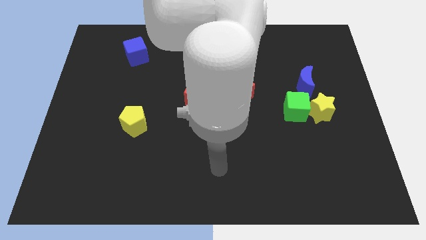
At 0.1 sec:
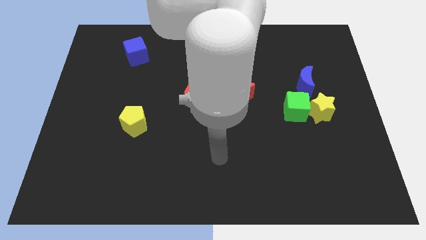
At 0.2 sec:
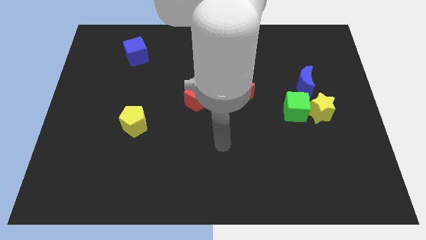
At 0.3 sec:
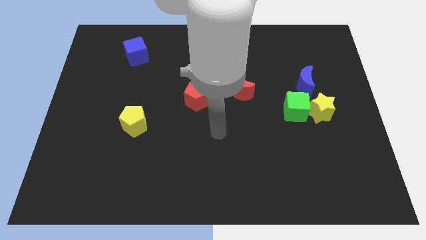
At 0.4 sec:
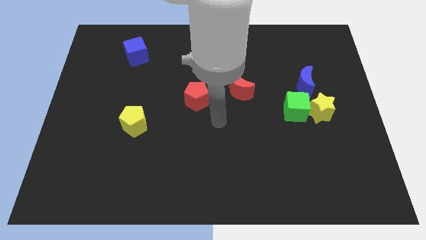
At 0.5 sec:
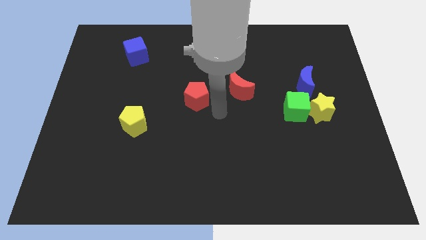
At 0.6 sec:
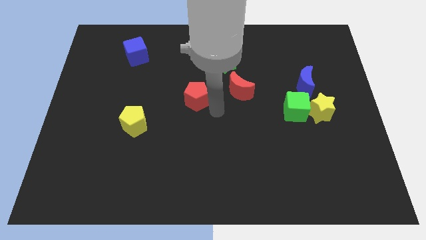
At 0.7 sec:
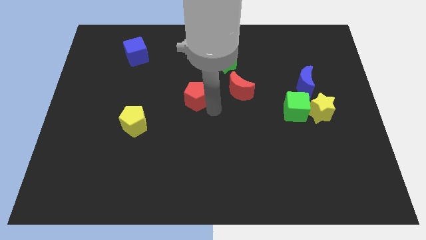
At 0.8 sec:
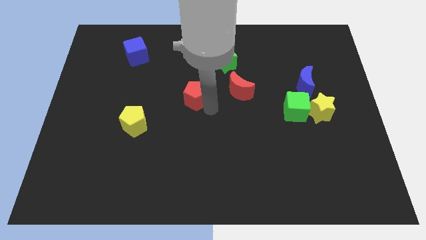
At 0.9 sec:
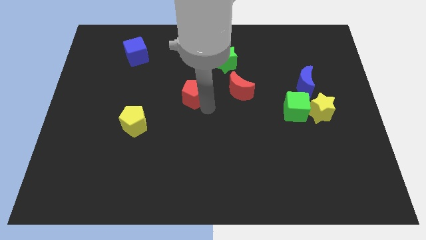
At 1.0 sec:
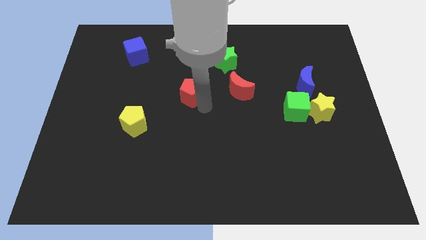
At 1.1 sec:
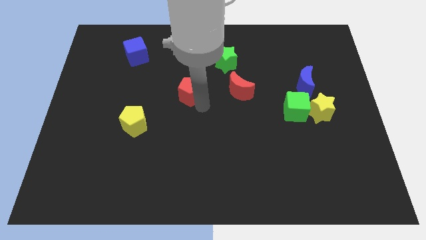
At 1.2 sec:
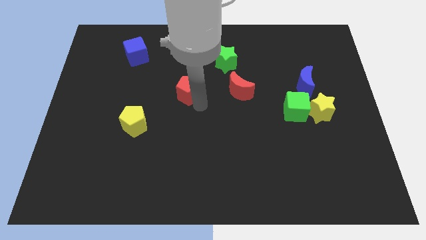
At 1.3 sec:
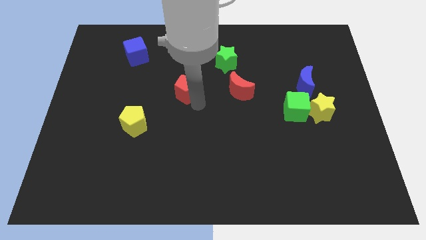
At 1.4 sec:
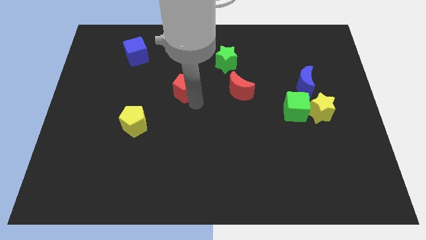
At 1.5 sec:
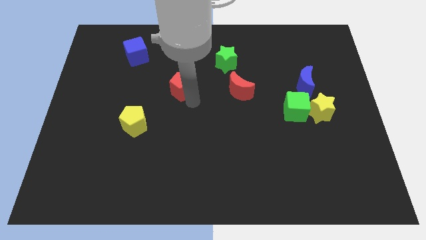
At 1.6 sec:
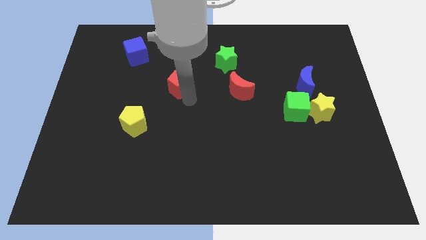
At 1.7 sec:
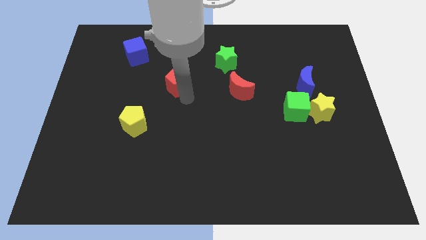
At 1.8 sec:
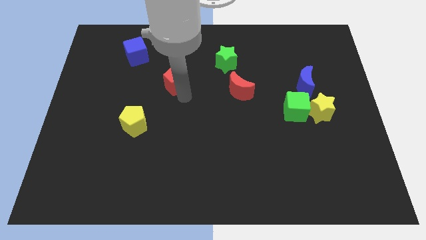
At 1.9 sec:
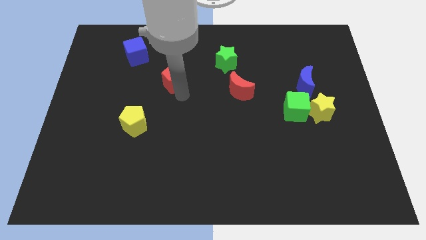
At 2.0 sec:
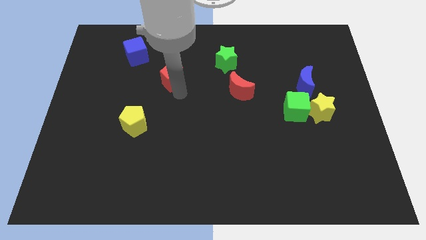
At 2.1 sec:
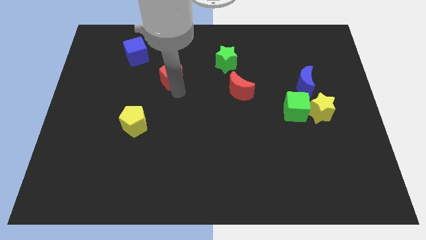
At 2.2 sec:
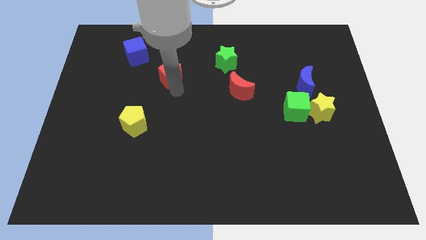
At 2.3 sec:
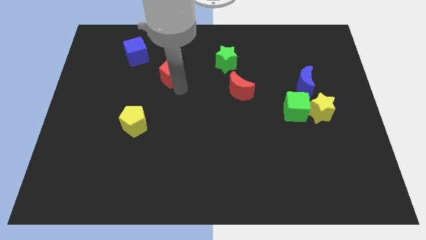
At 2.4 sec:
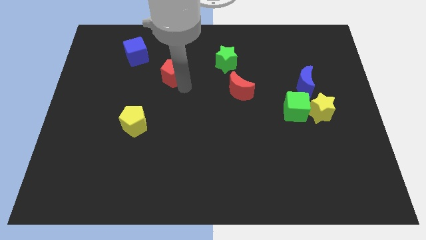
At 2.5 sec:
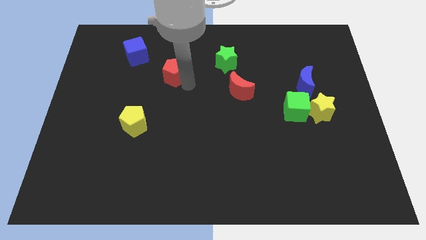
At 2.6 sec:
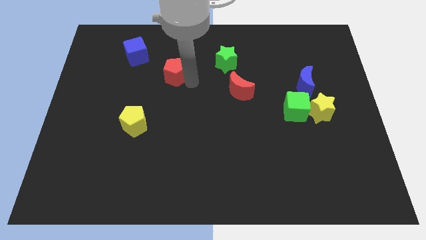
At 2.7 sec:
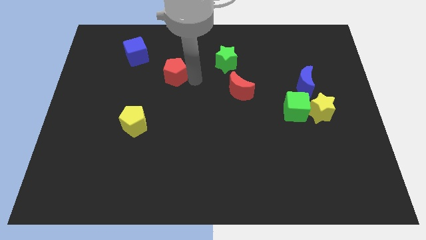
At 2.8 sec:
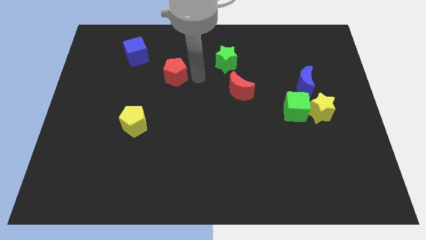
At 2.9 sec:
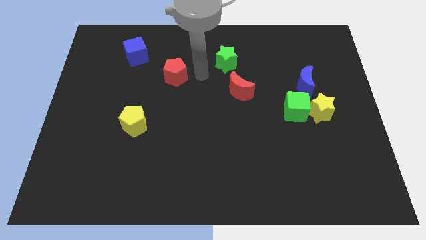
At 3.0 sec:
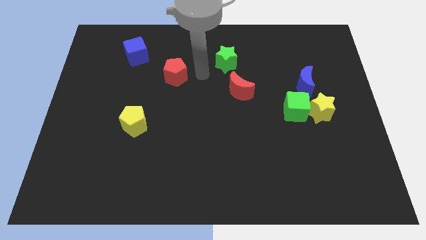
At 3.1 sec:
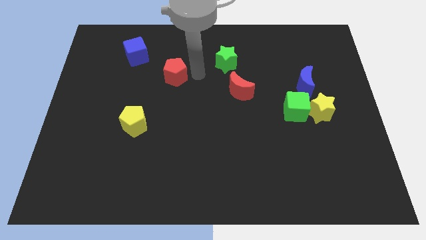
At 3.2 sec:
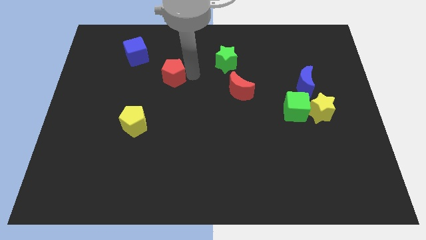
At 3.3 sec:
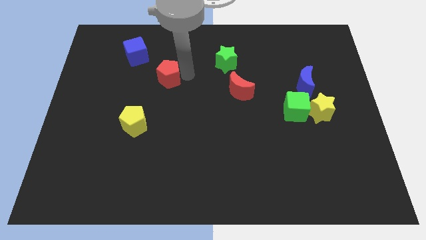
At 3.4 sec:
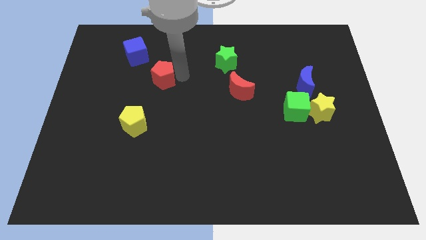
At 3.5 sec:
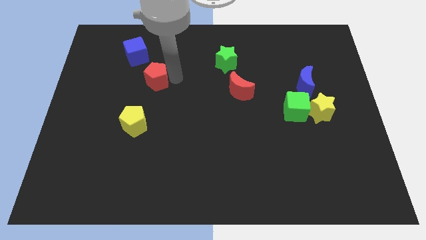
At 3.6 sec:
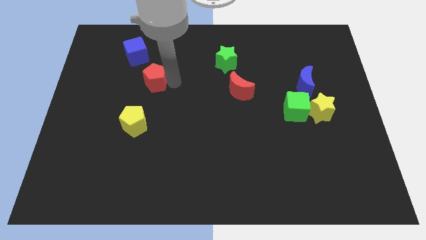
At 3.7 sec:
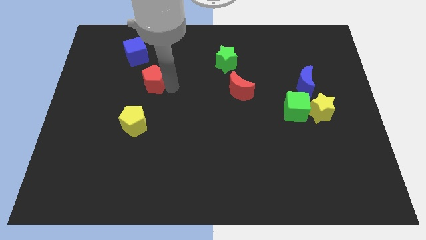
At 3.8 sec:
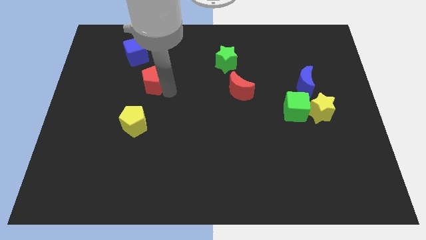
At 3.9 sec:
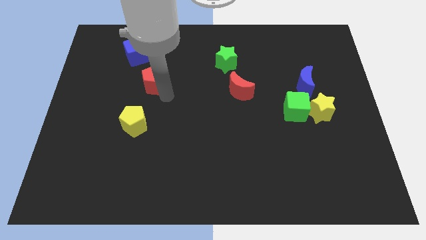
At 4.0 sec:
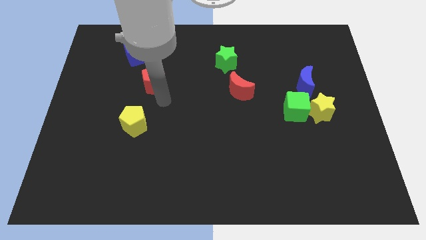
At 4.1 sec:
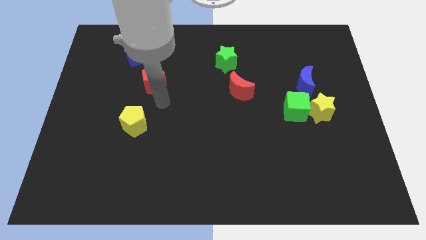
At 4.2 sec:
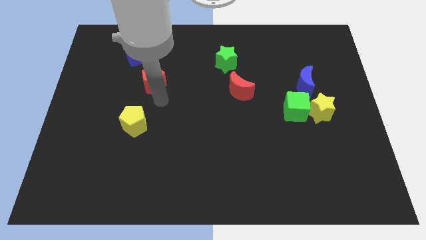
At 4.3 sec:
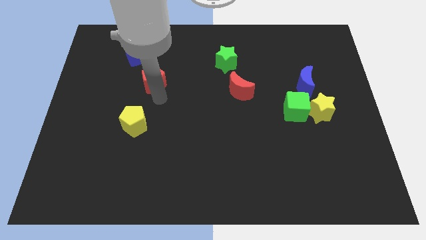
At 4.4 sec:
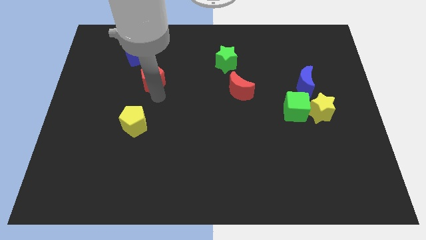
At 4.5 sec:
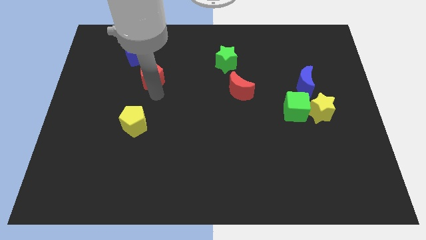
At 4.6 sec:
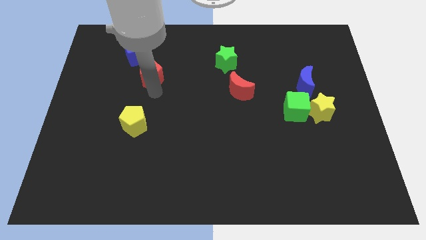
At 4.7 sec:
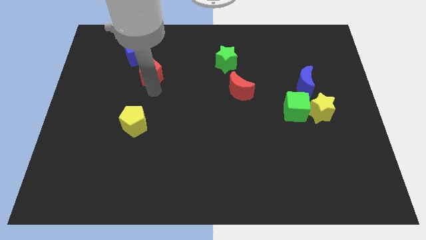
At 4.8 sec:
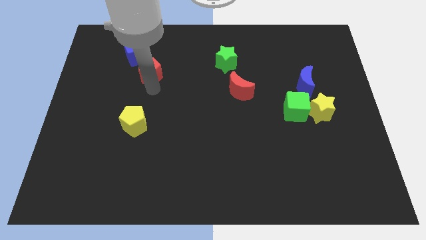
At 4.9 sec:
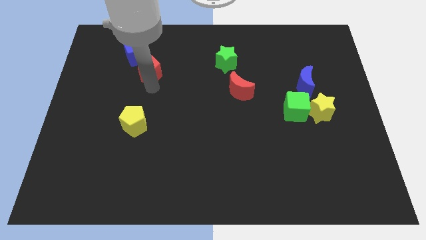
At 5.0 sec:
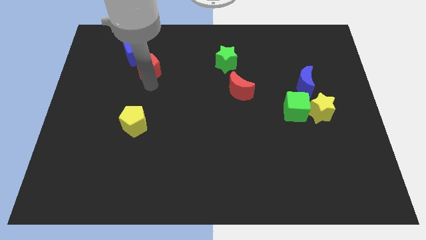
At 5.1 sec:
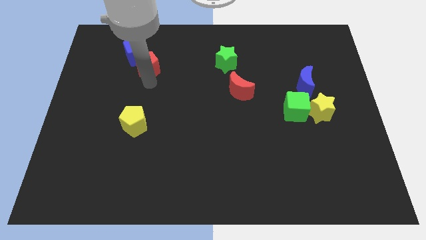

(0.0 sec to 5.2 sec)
push the red pentagon close to the blue cube

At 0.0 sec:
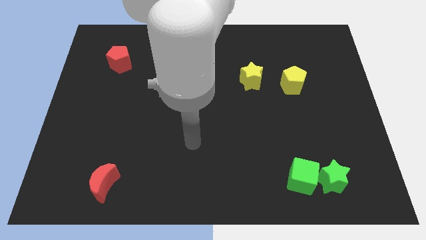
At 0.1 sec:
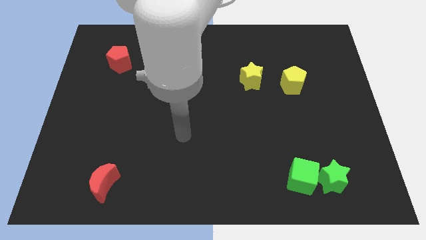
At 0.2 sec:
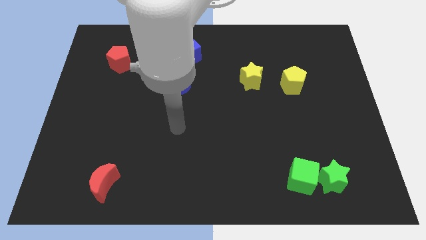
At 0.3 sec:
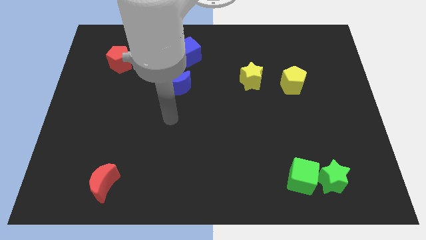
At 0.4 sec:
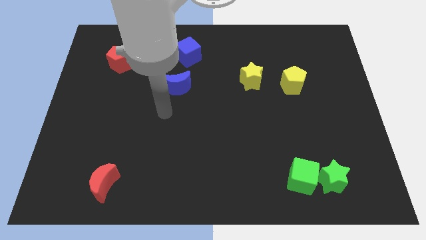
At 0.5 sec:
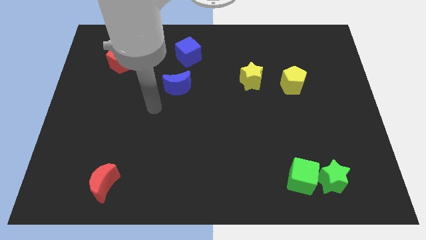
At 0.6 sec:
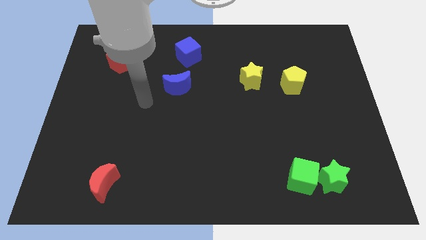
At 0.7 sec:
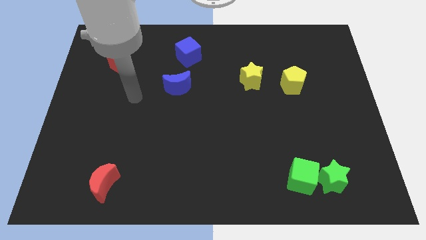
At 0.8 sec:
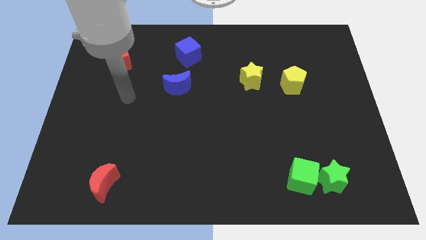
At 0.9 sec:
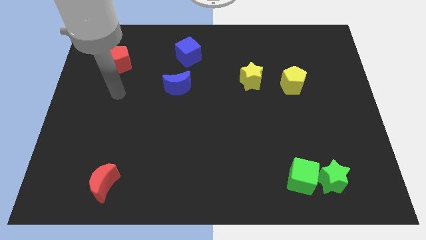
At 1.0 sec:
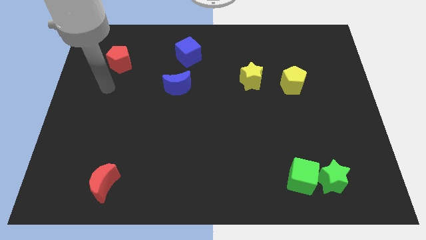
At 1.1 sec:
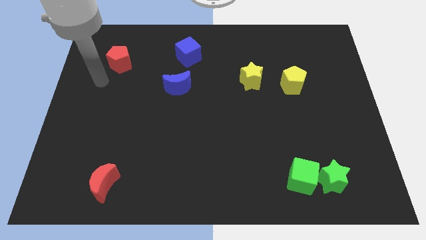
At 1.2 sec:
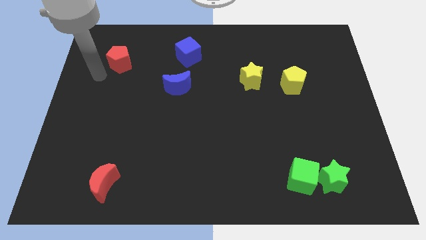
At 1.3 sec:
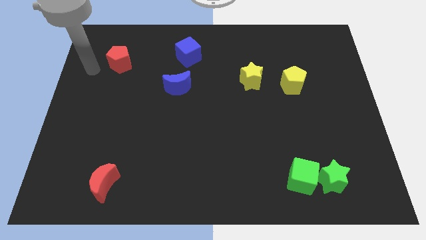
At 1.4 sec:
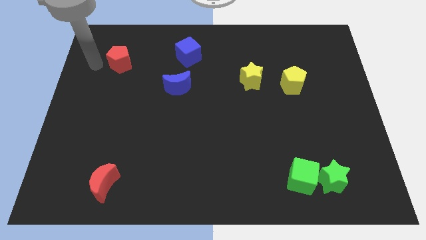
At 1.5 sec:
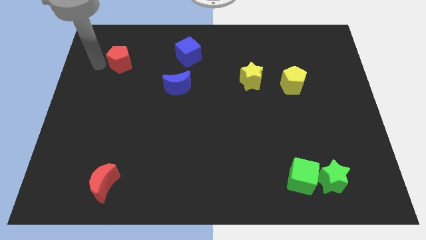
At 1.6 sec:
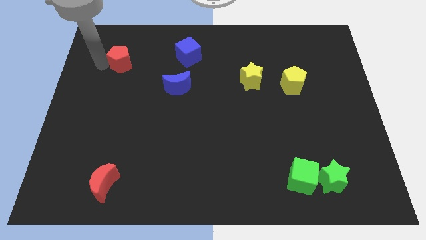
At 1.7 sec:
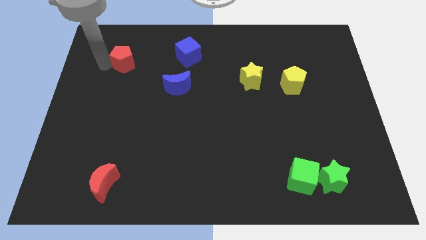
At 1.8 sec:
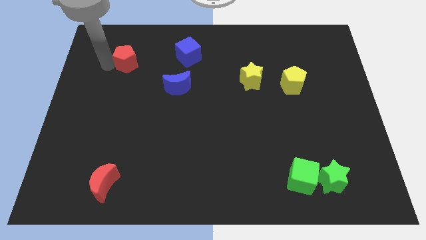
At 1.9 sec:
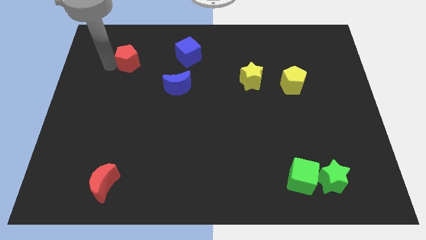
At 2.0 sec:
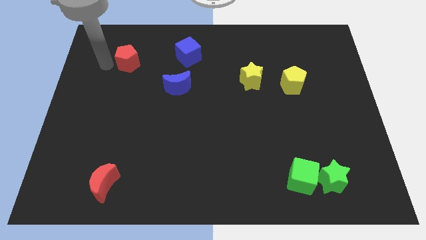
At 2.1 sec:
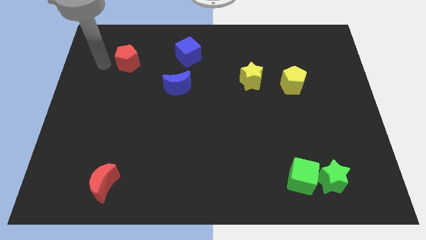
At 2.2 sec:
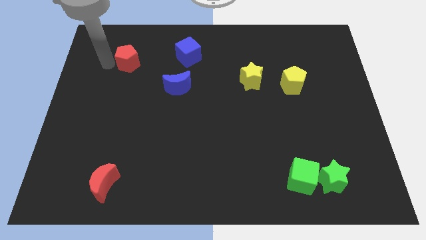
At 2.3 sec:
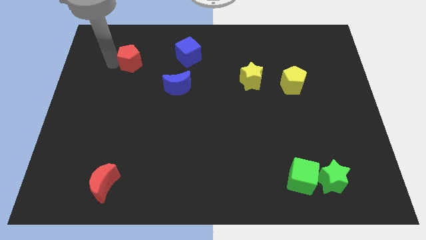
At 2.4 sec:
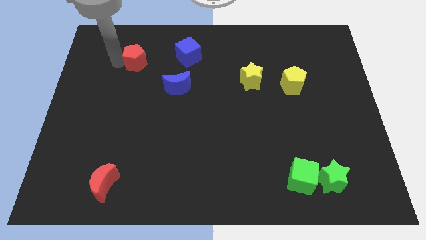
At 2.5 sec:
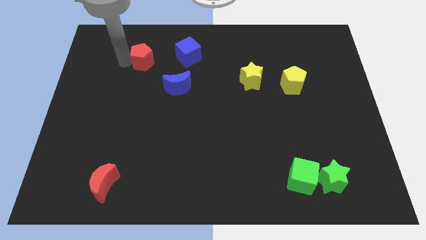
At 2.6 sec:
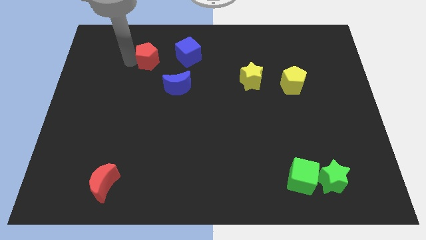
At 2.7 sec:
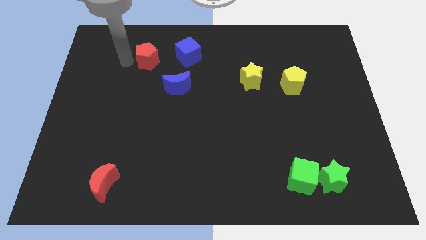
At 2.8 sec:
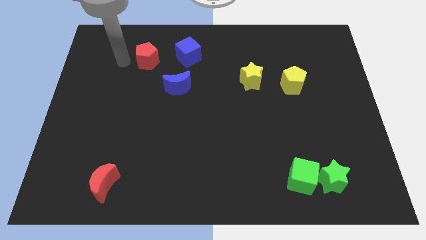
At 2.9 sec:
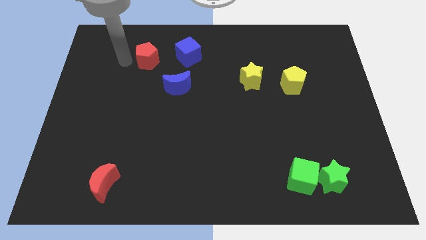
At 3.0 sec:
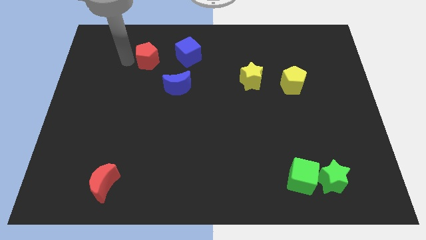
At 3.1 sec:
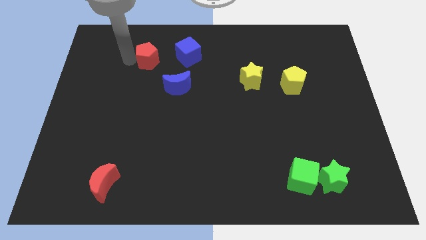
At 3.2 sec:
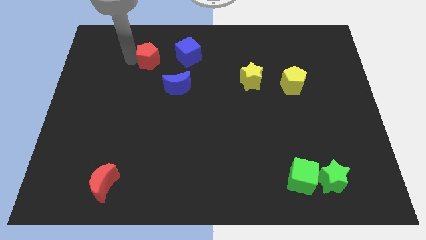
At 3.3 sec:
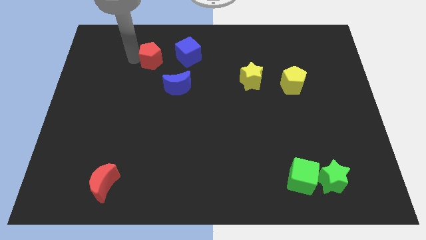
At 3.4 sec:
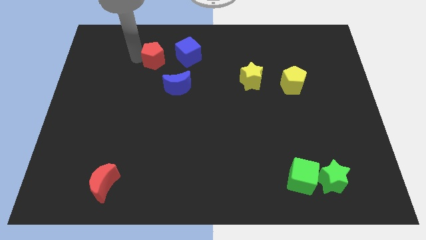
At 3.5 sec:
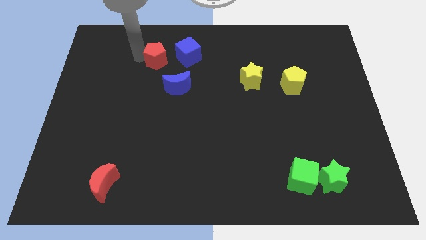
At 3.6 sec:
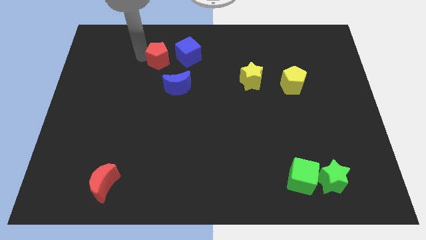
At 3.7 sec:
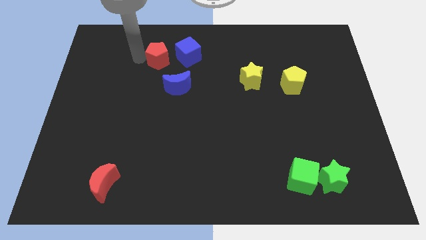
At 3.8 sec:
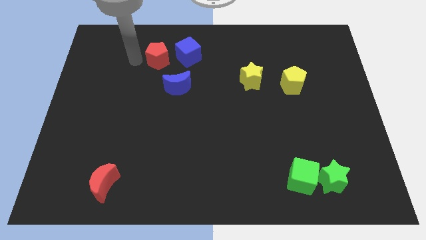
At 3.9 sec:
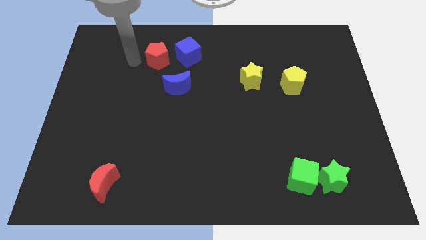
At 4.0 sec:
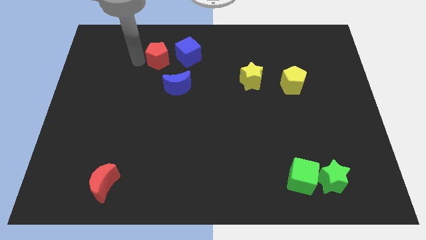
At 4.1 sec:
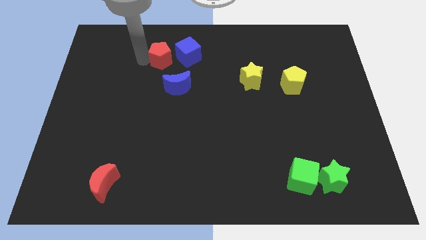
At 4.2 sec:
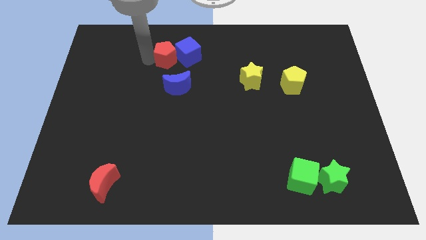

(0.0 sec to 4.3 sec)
put the red pentagon close to the blue cube
